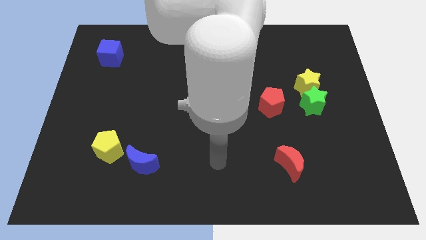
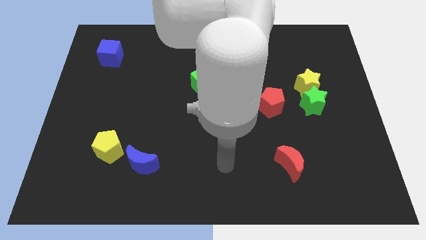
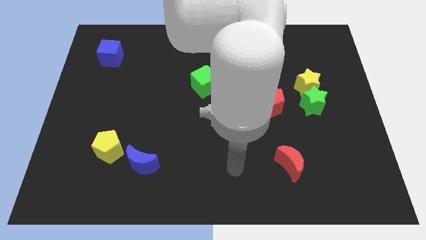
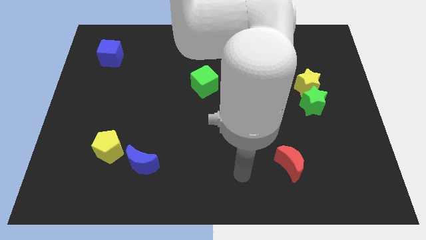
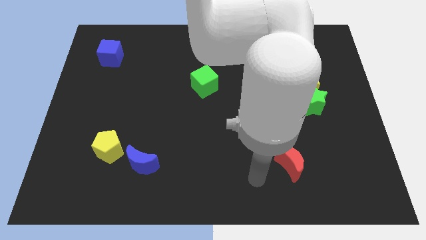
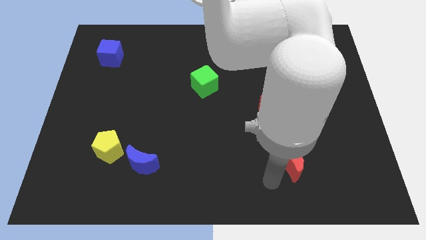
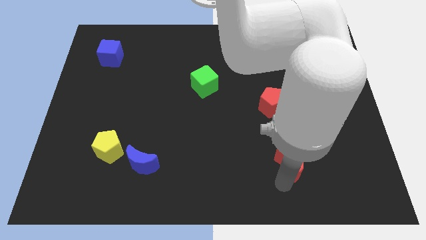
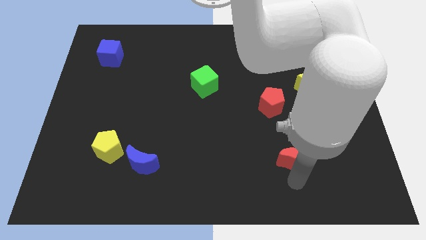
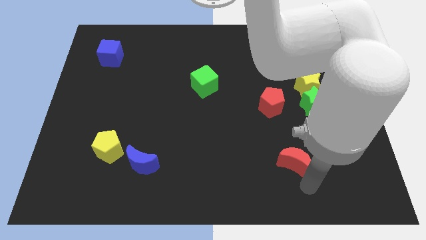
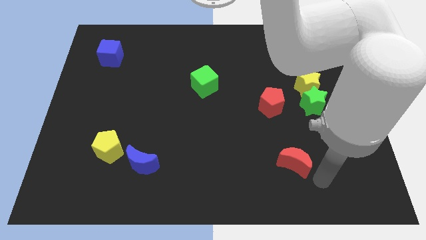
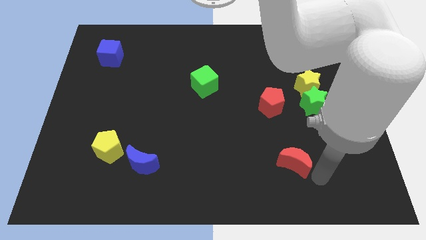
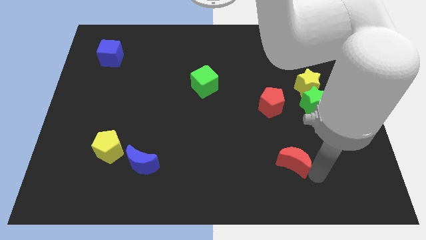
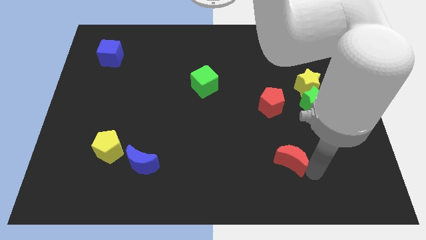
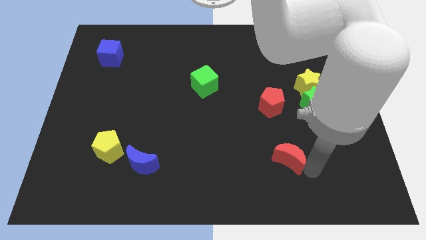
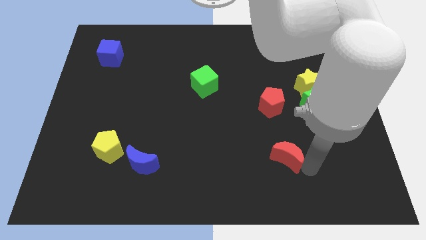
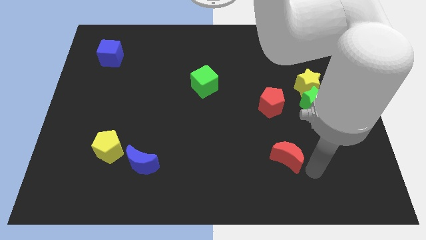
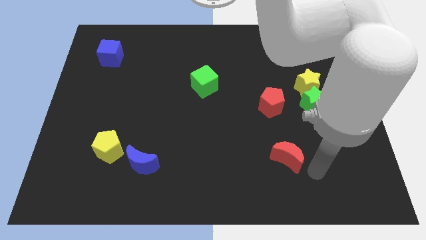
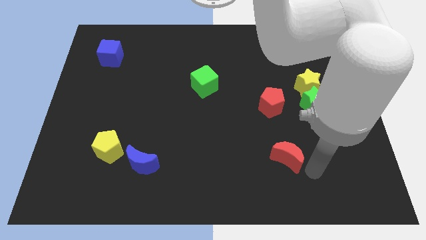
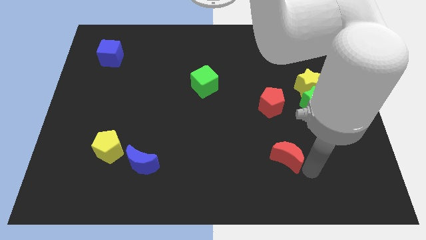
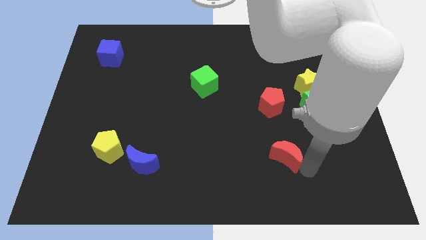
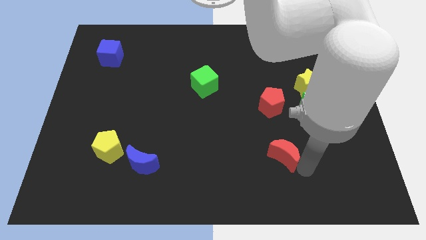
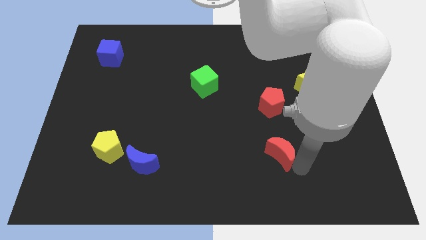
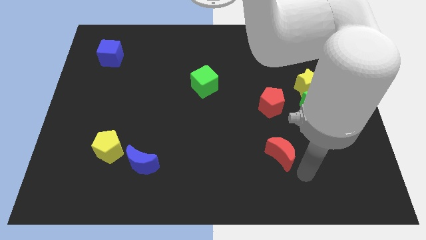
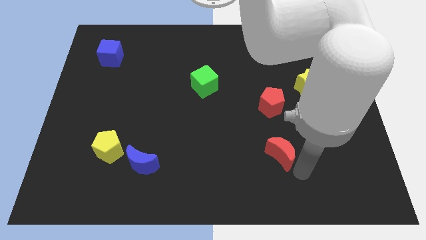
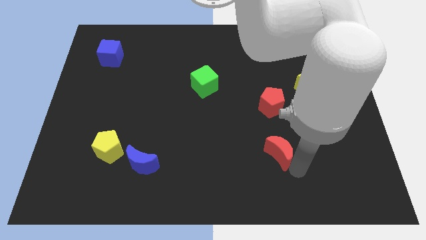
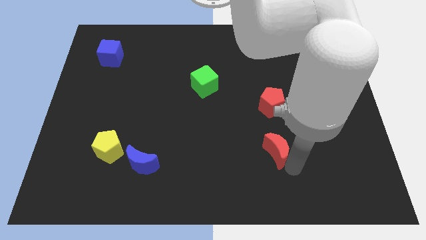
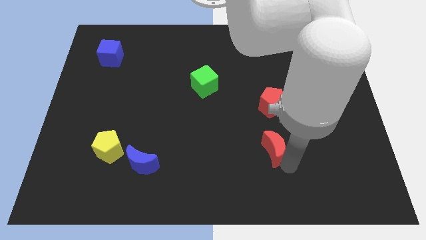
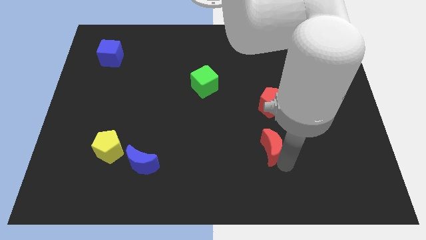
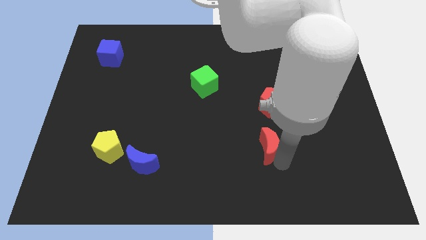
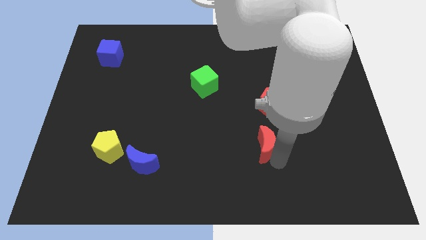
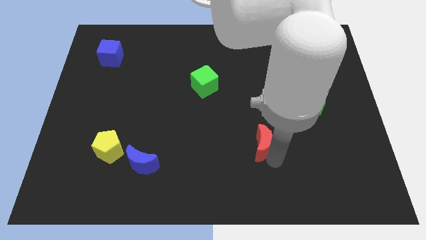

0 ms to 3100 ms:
slightly push the red moon diagonally up and left

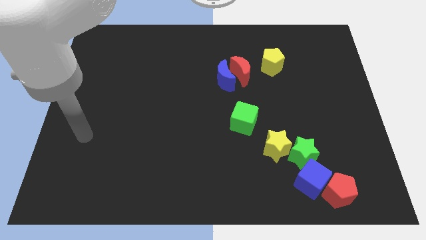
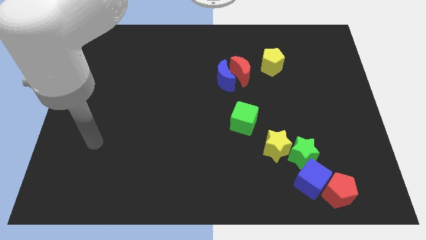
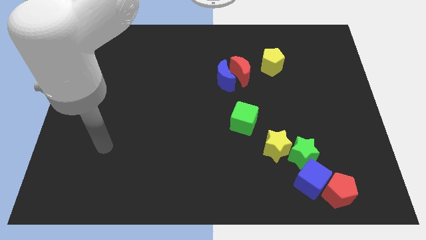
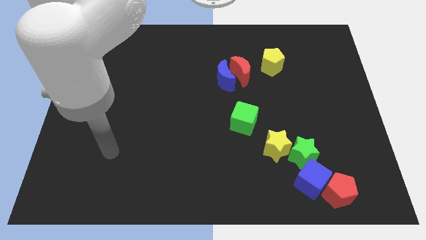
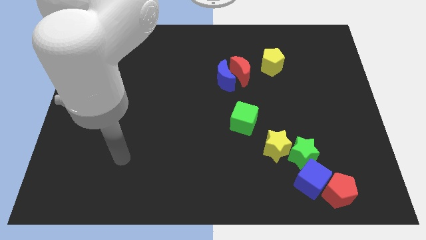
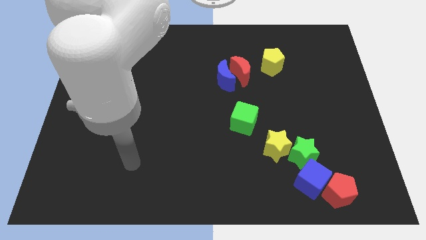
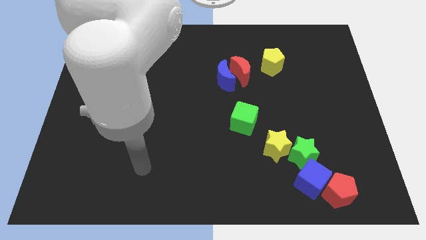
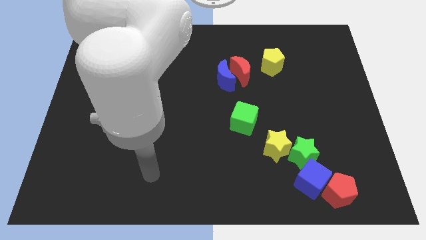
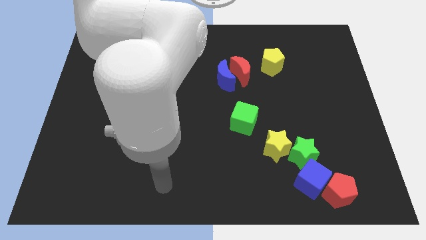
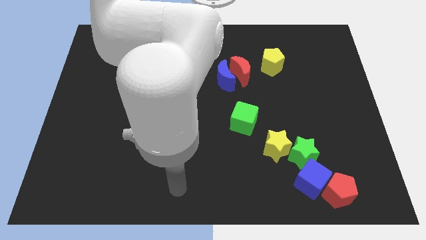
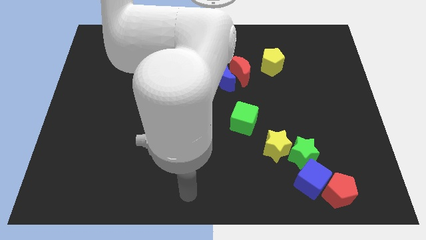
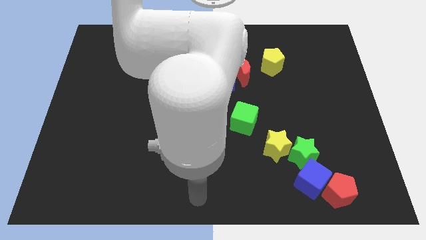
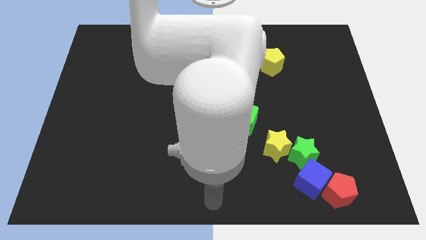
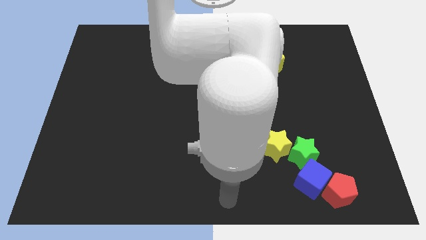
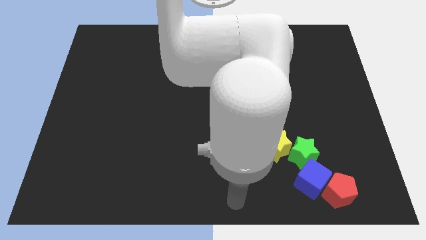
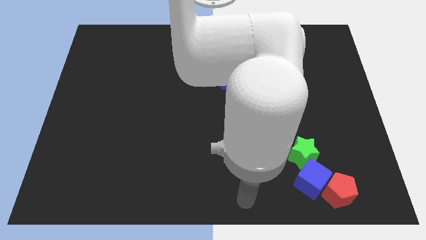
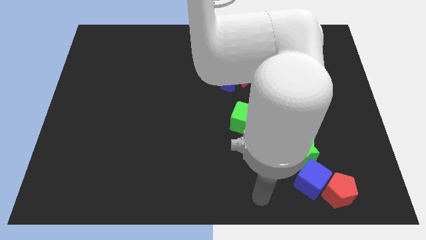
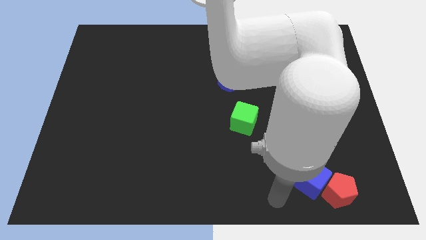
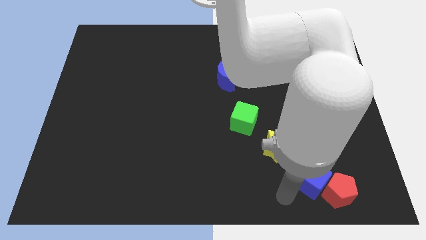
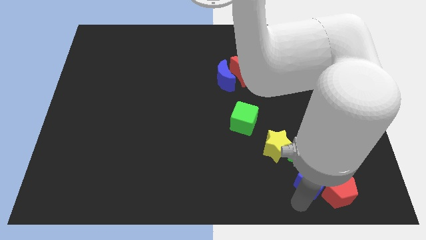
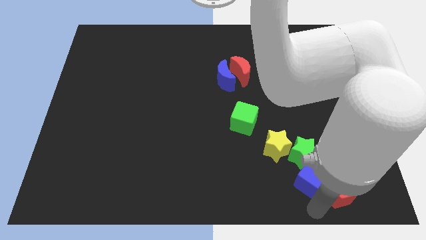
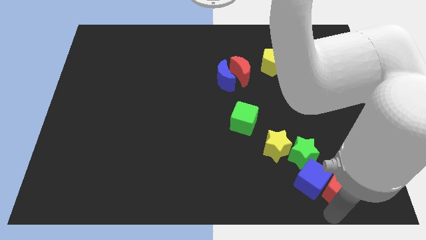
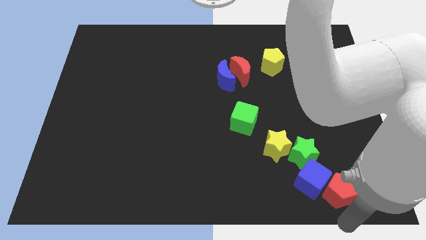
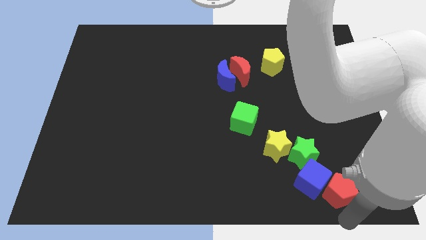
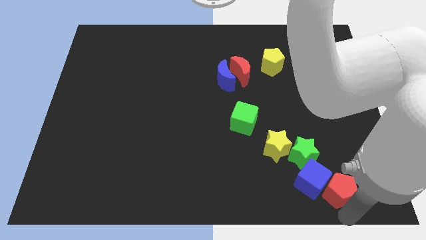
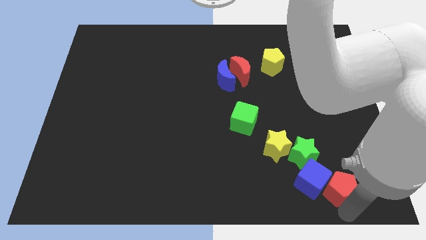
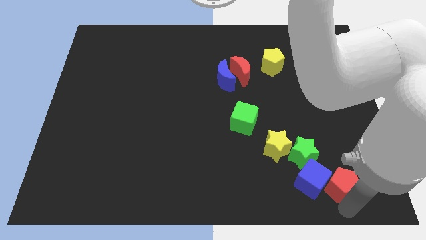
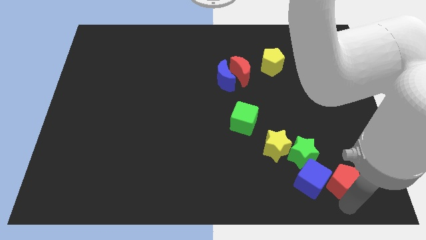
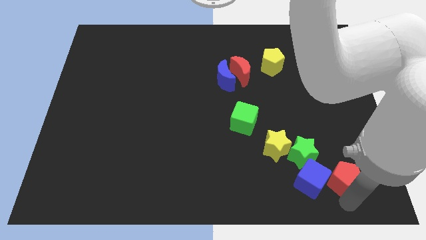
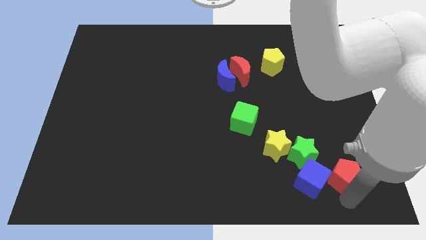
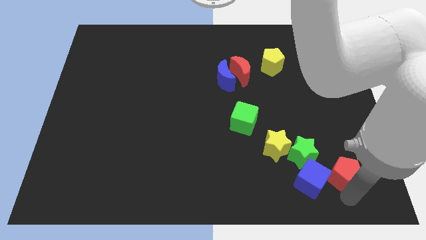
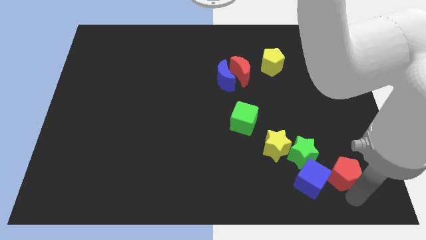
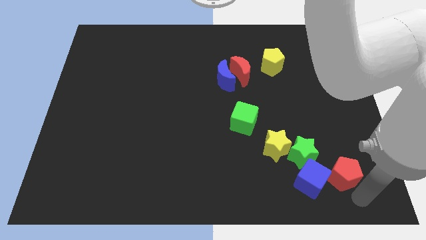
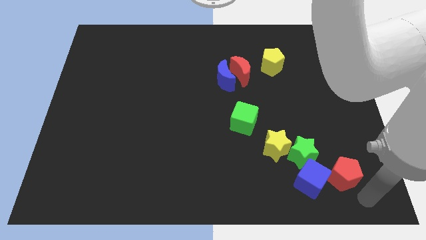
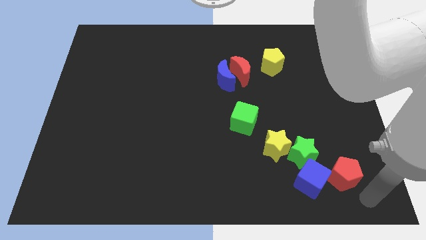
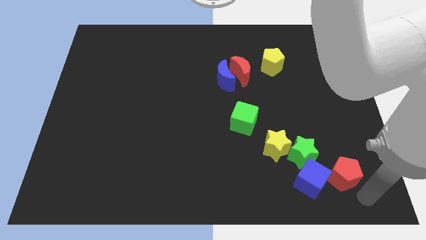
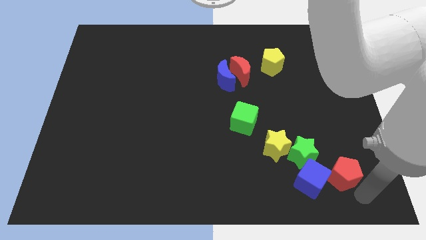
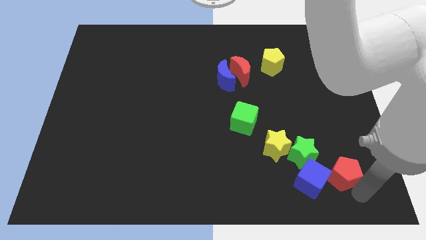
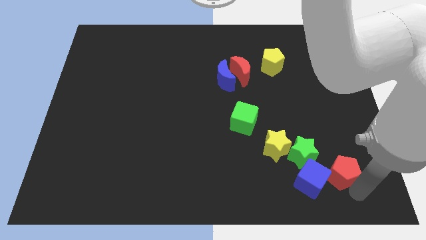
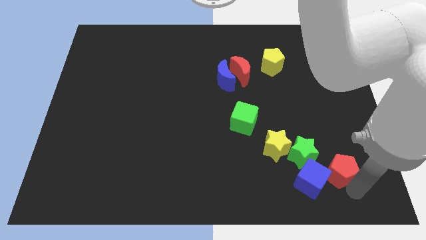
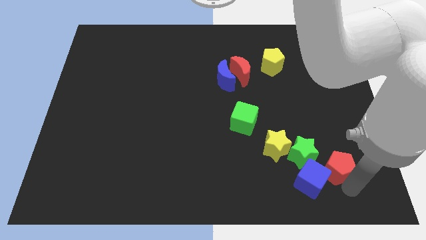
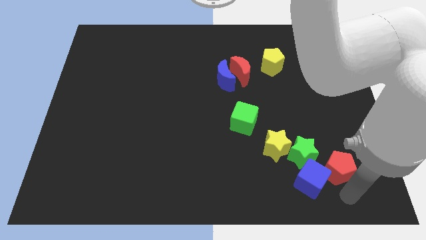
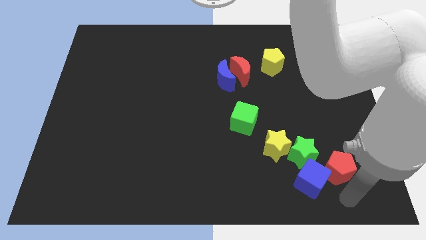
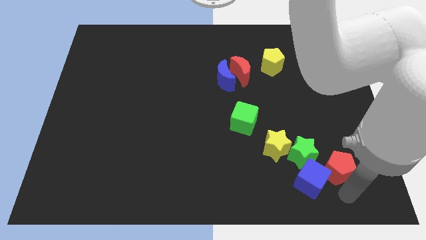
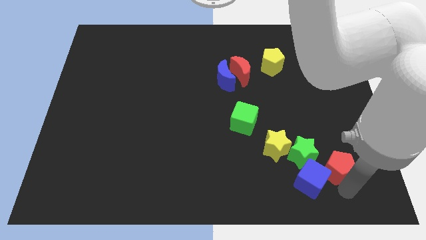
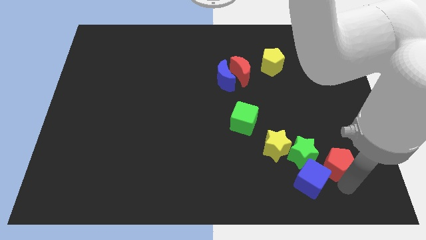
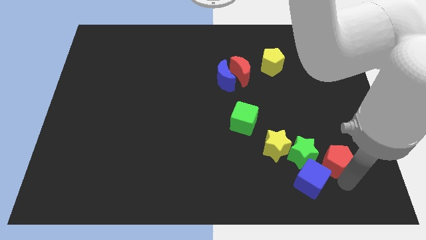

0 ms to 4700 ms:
slightly push the red pentagon up

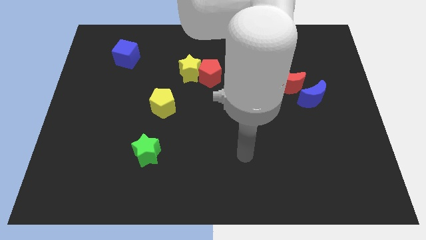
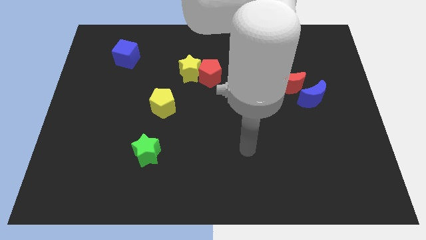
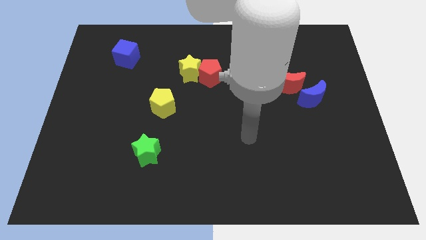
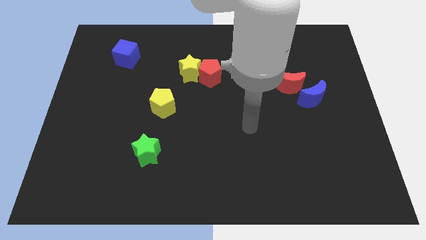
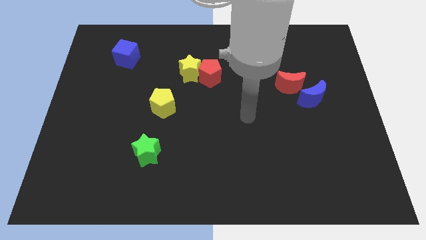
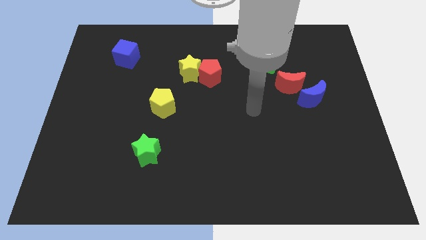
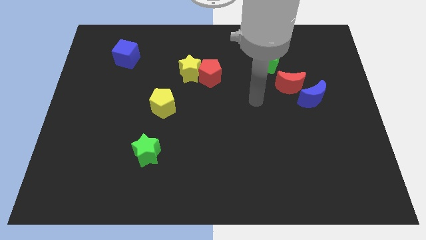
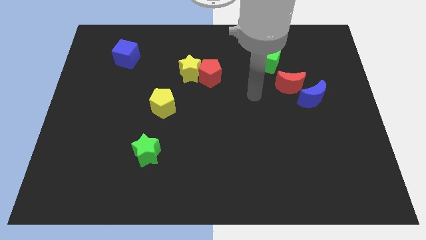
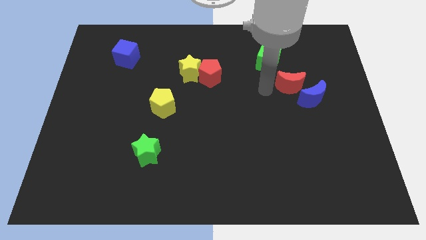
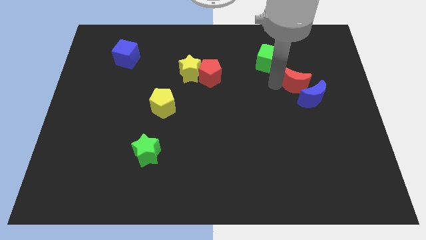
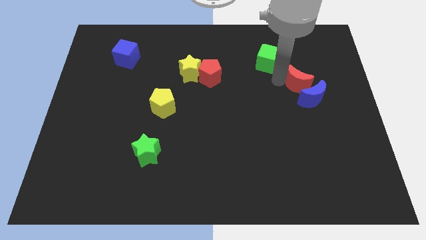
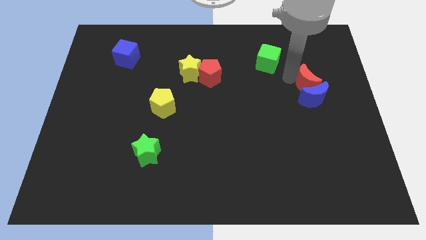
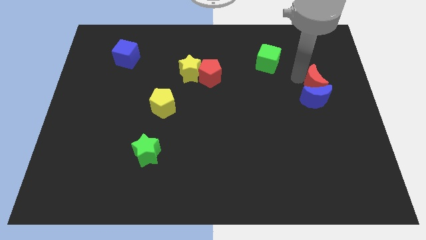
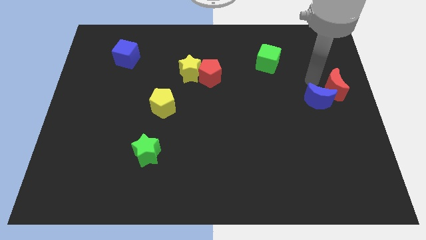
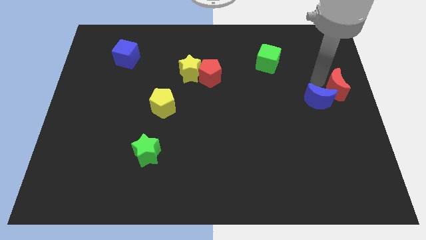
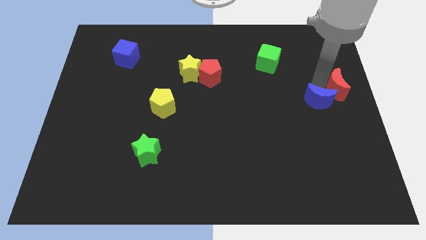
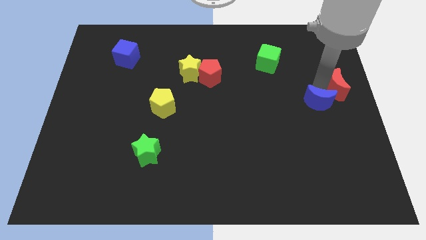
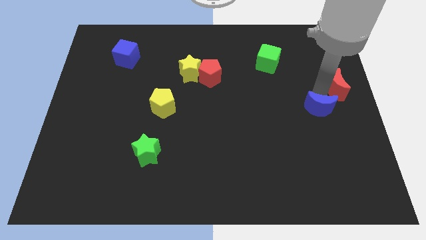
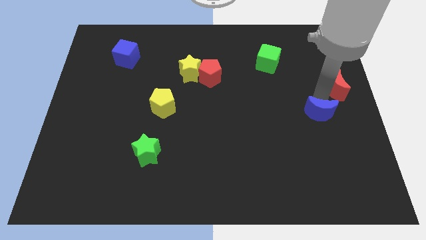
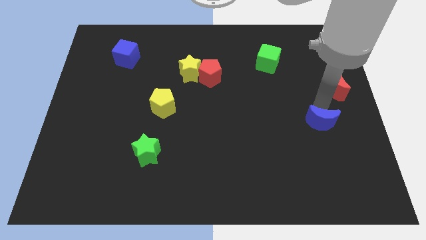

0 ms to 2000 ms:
slightly move the blue moon downwards
